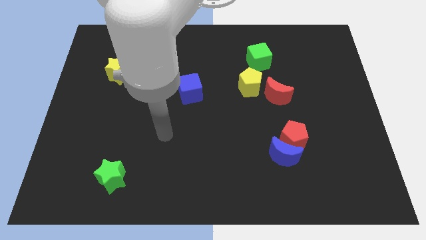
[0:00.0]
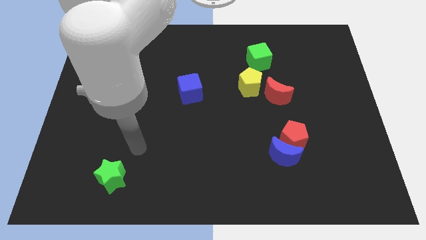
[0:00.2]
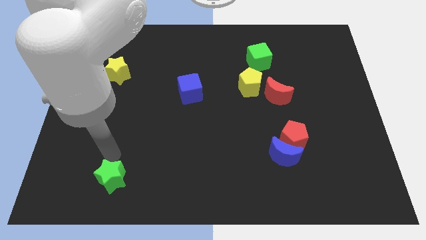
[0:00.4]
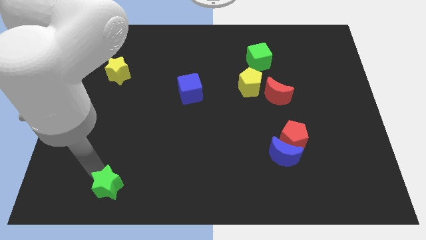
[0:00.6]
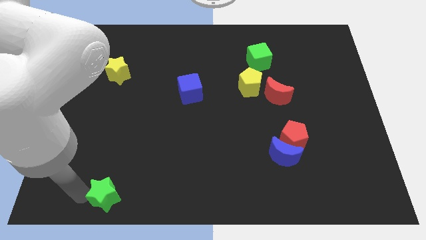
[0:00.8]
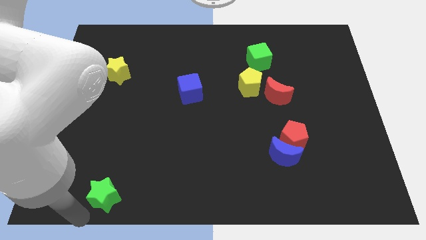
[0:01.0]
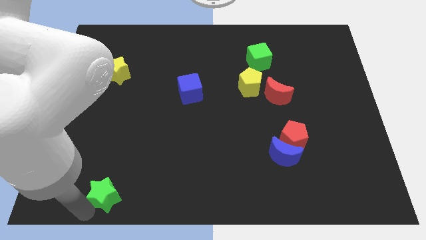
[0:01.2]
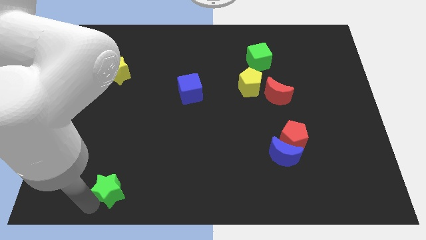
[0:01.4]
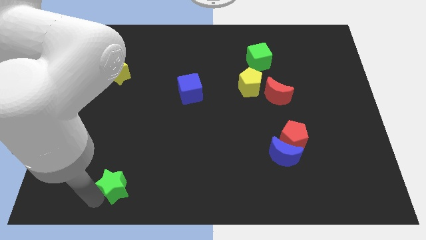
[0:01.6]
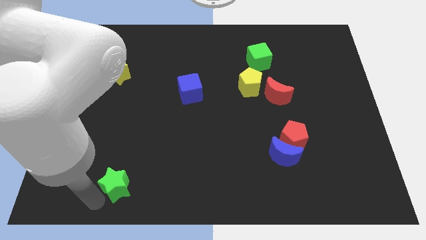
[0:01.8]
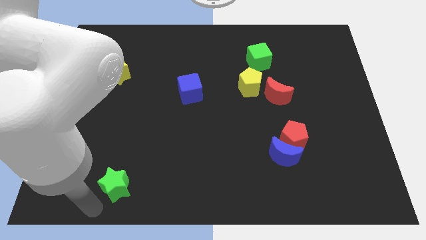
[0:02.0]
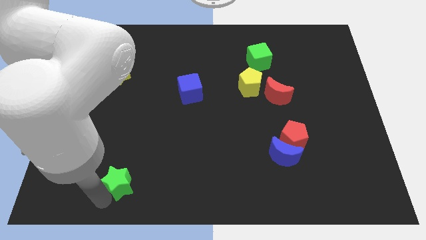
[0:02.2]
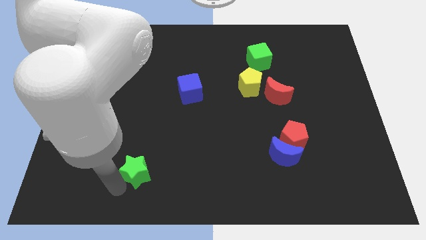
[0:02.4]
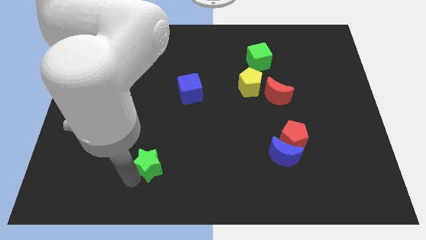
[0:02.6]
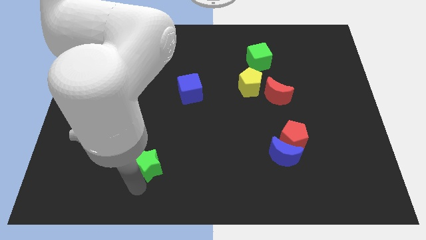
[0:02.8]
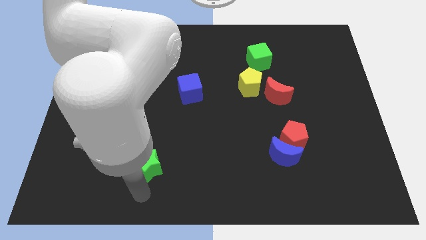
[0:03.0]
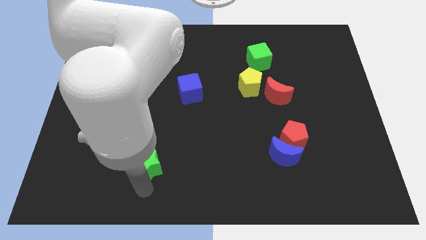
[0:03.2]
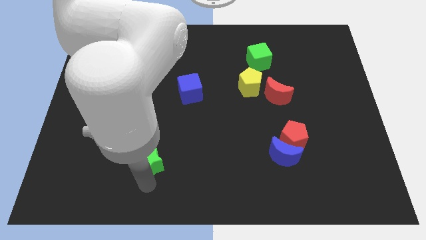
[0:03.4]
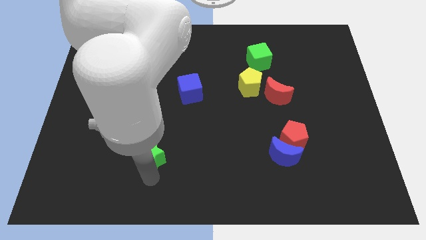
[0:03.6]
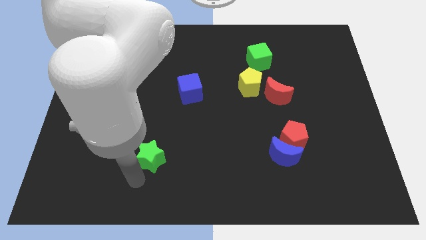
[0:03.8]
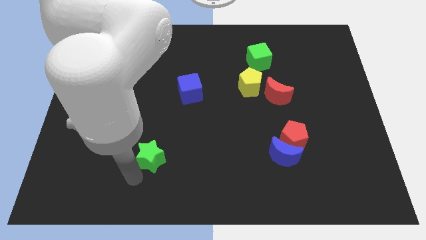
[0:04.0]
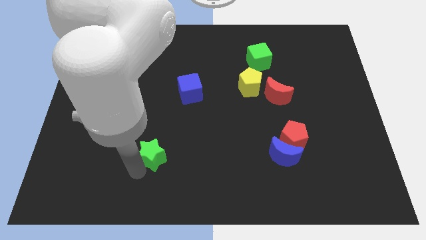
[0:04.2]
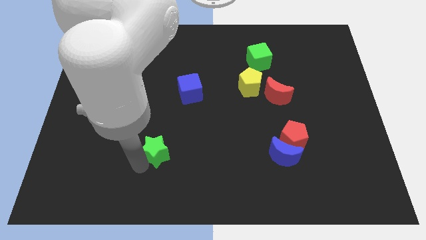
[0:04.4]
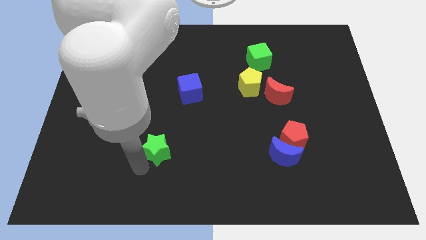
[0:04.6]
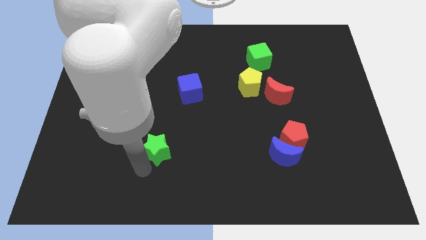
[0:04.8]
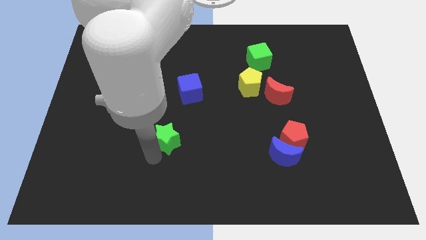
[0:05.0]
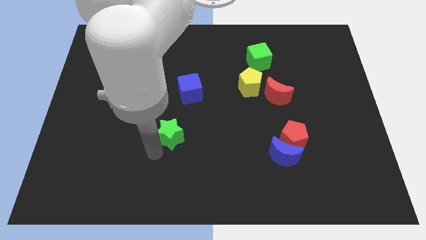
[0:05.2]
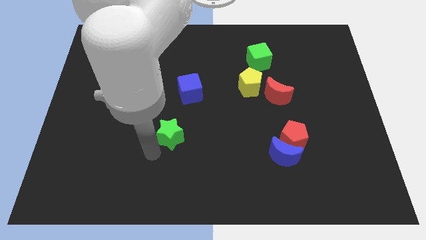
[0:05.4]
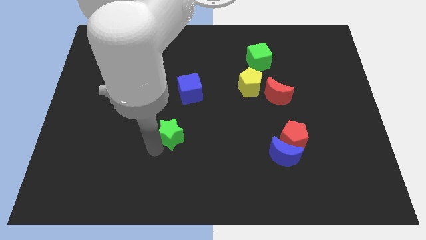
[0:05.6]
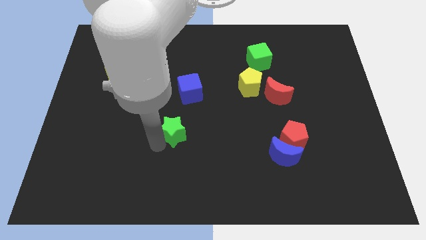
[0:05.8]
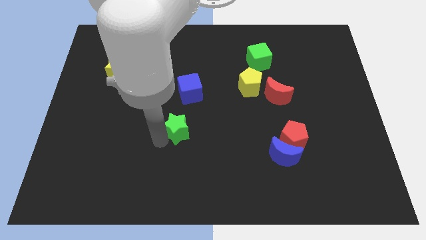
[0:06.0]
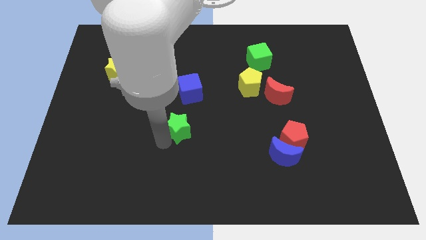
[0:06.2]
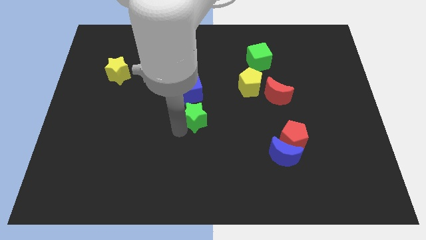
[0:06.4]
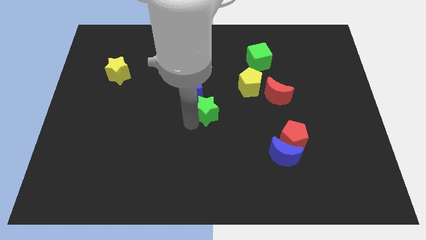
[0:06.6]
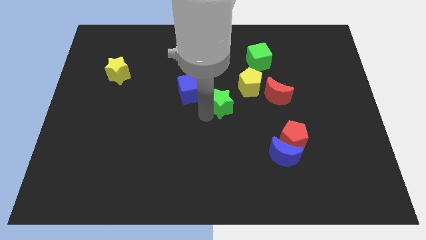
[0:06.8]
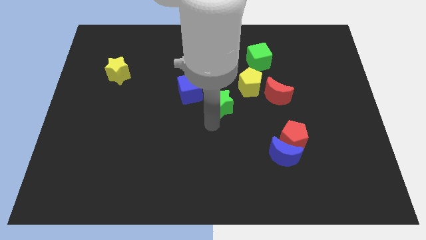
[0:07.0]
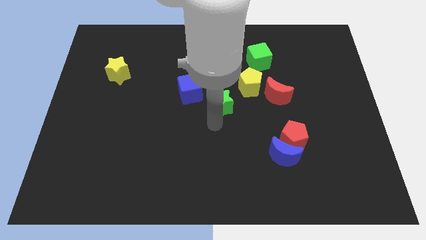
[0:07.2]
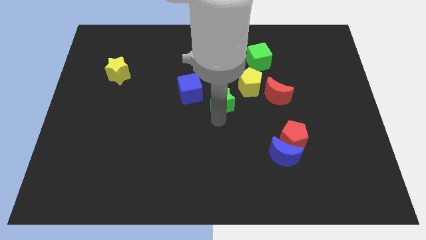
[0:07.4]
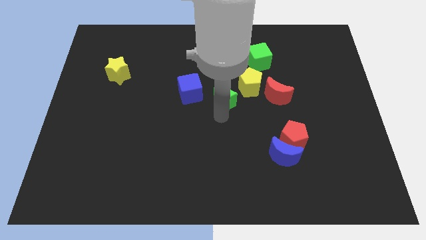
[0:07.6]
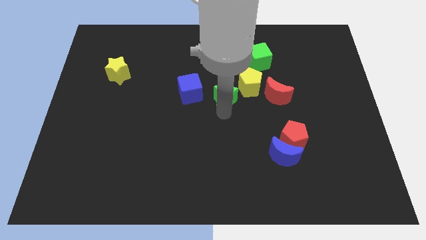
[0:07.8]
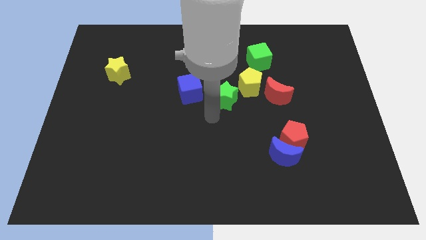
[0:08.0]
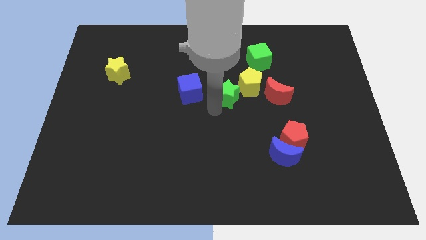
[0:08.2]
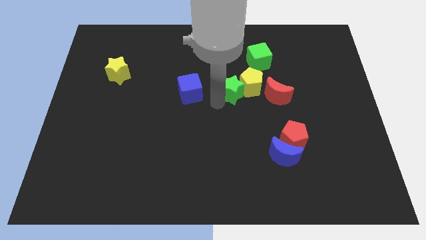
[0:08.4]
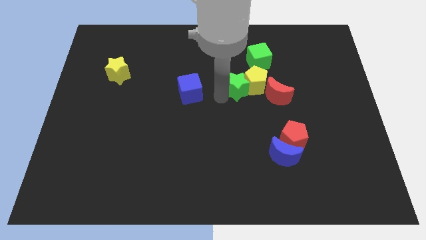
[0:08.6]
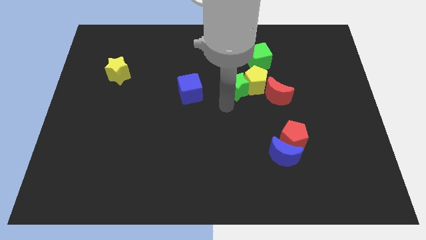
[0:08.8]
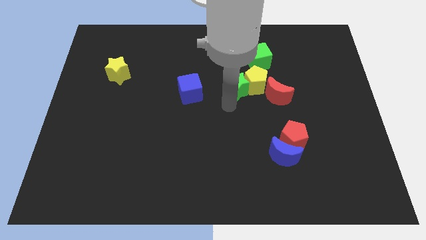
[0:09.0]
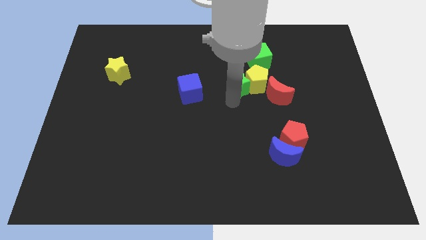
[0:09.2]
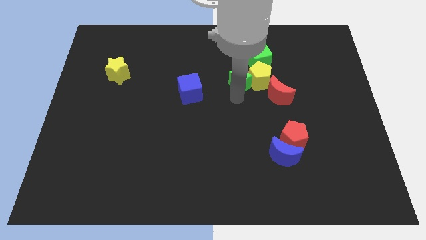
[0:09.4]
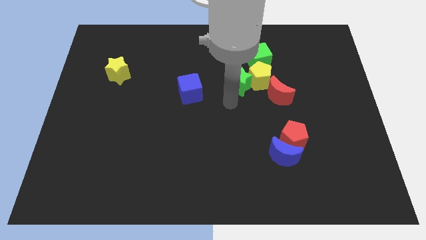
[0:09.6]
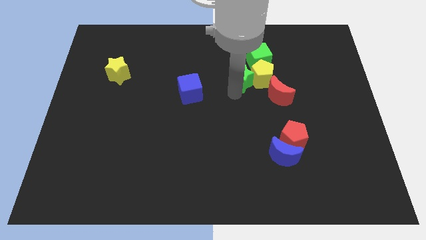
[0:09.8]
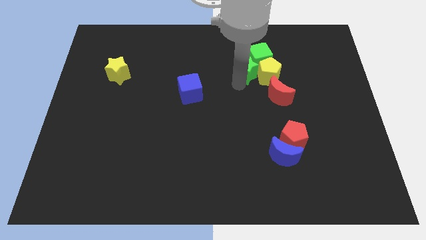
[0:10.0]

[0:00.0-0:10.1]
slide the green star towards the green cube

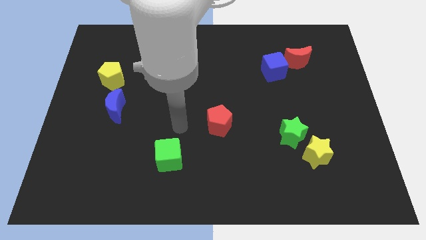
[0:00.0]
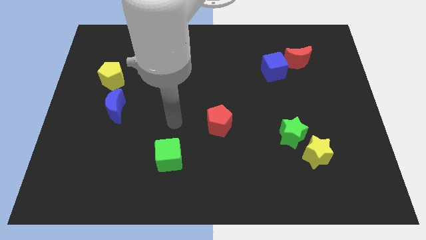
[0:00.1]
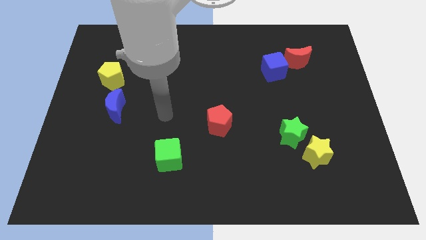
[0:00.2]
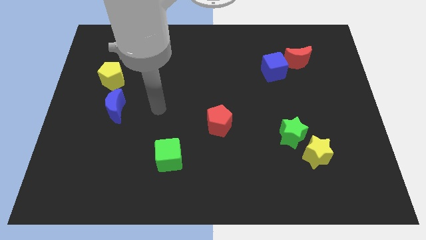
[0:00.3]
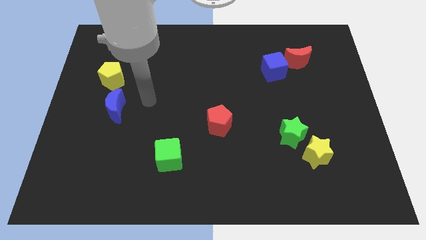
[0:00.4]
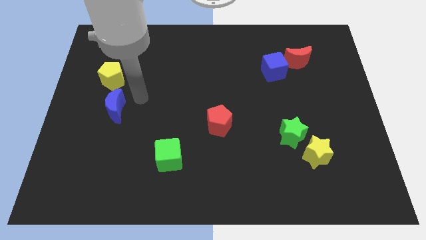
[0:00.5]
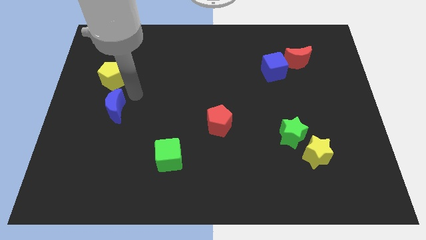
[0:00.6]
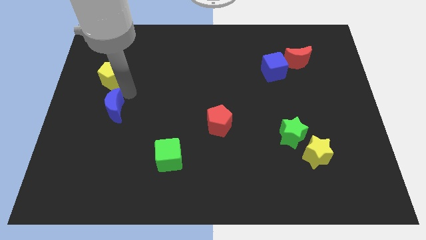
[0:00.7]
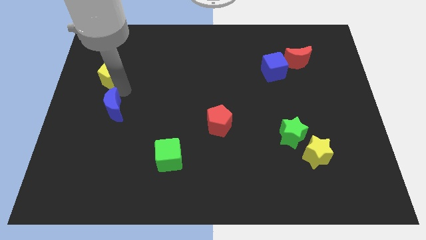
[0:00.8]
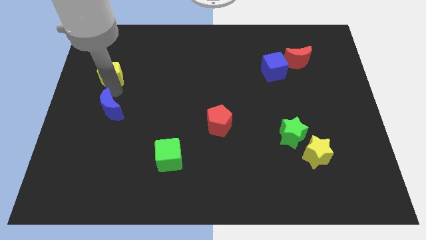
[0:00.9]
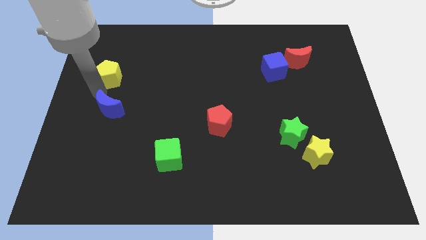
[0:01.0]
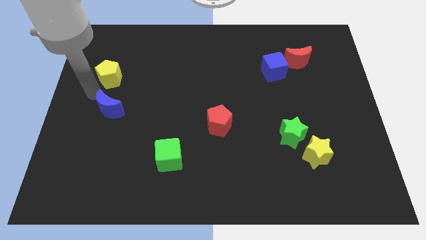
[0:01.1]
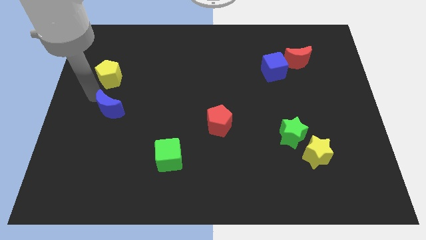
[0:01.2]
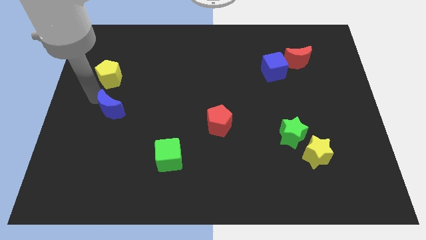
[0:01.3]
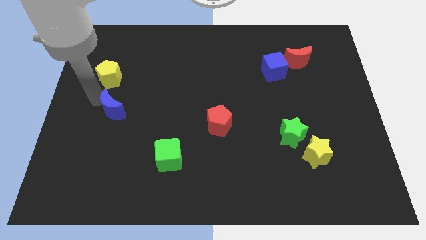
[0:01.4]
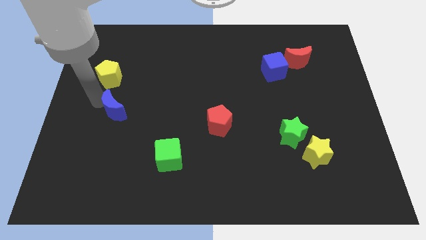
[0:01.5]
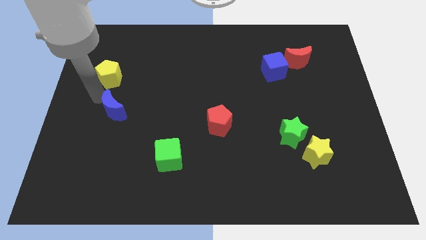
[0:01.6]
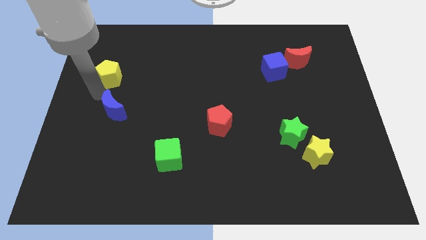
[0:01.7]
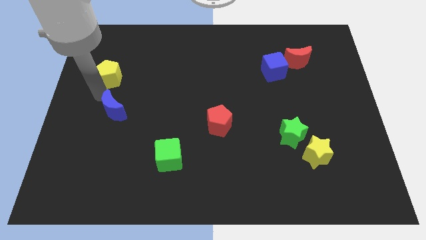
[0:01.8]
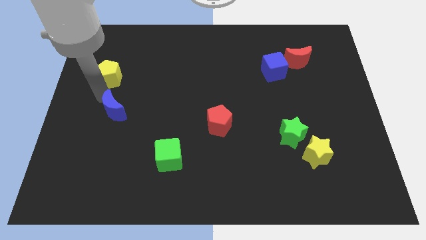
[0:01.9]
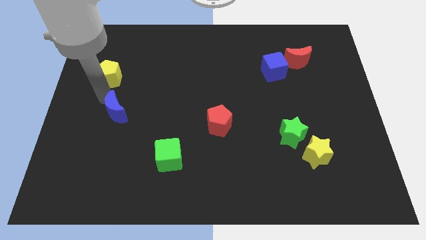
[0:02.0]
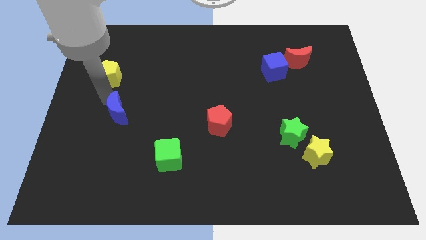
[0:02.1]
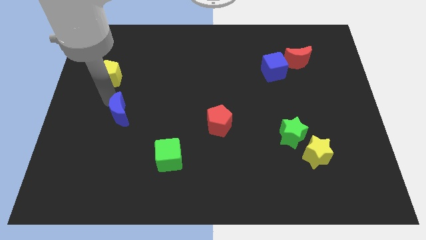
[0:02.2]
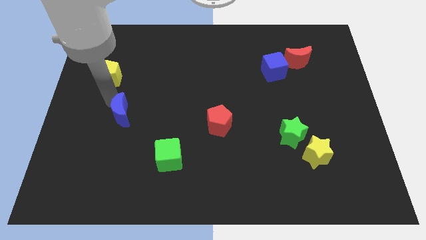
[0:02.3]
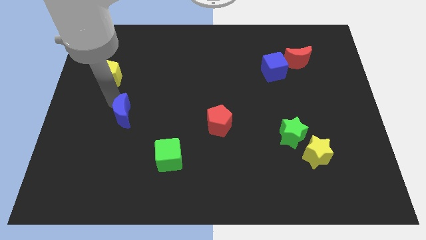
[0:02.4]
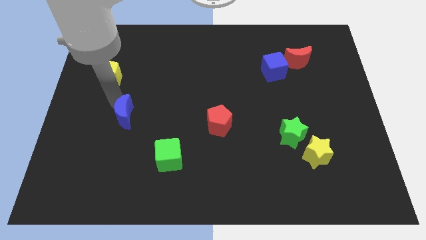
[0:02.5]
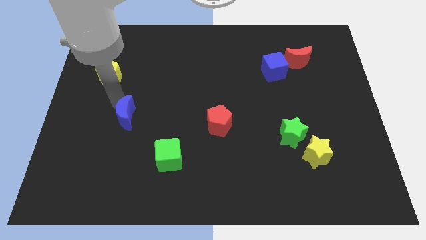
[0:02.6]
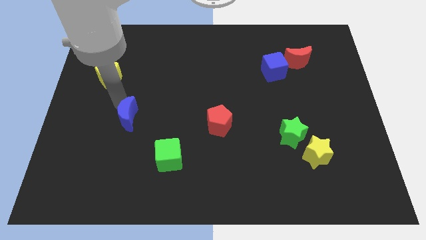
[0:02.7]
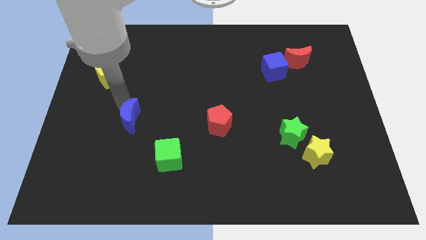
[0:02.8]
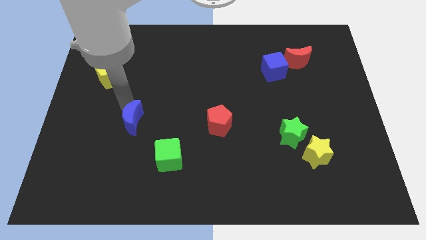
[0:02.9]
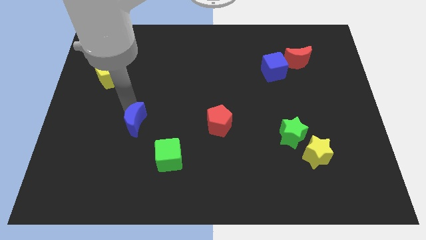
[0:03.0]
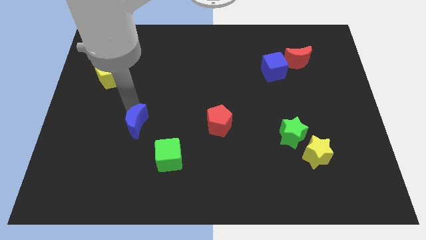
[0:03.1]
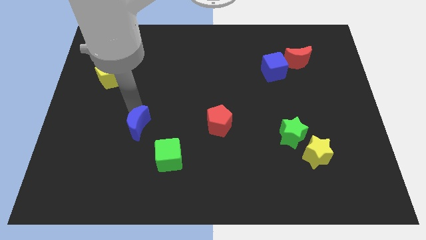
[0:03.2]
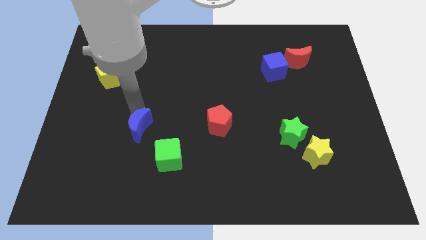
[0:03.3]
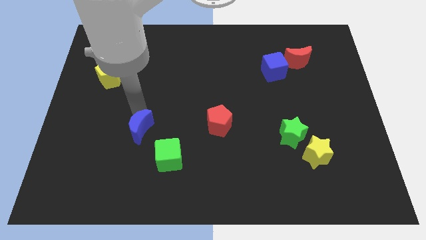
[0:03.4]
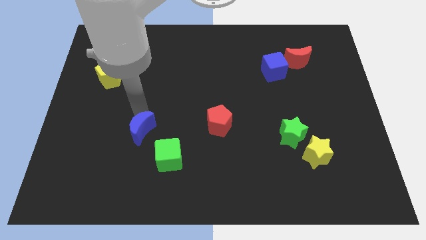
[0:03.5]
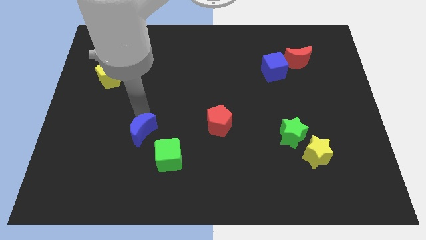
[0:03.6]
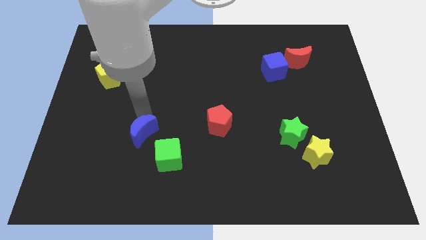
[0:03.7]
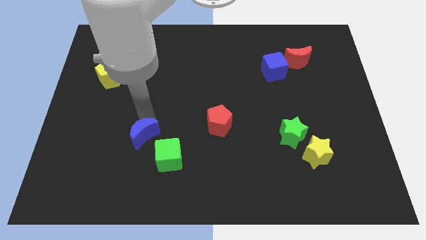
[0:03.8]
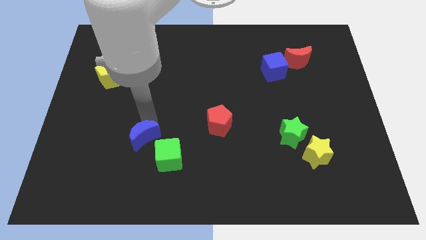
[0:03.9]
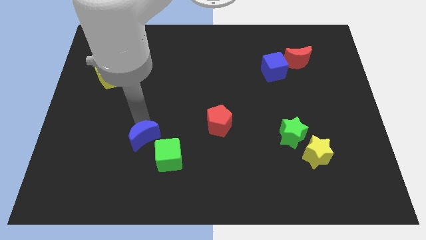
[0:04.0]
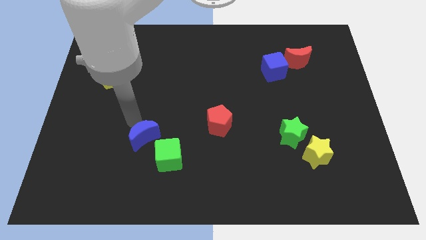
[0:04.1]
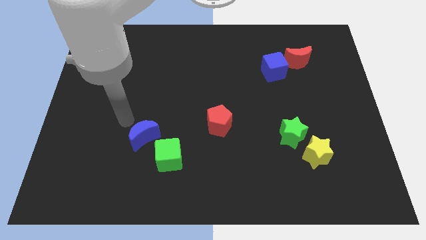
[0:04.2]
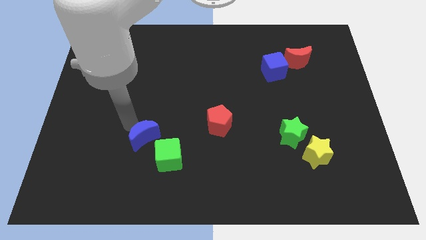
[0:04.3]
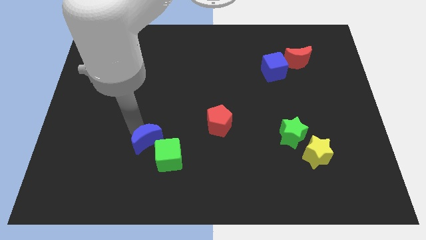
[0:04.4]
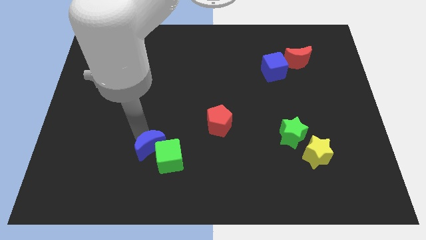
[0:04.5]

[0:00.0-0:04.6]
move the blue moon towards the green cube
